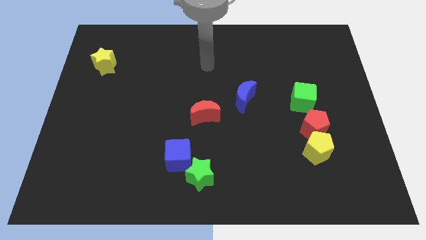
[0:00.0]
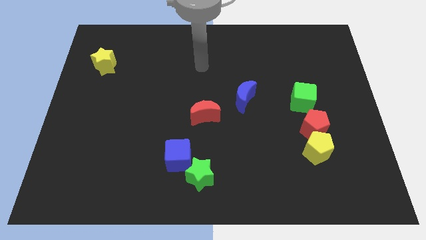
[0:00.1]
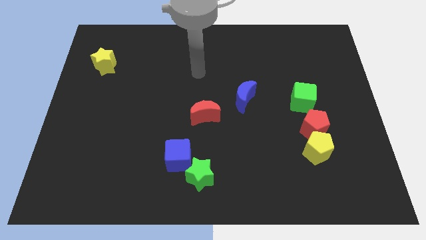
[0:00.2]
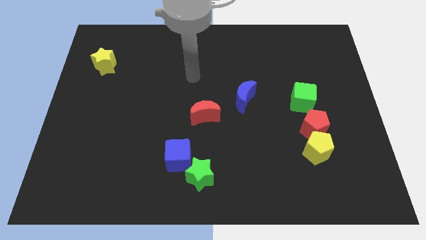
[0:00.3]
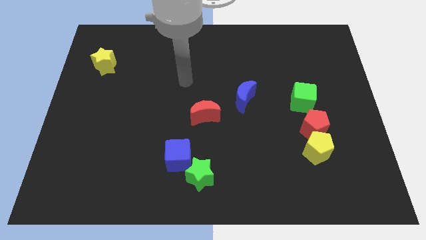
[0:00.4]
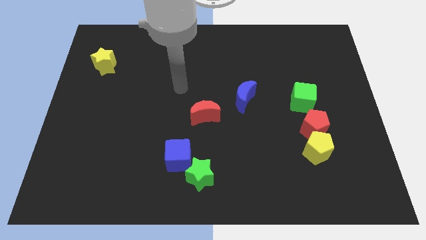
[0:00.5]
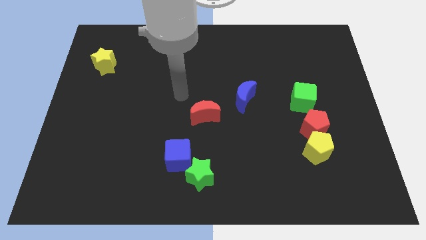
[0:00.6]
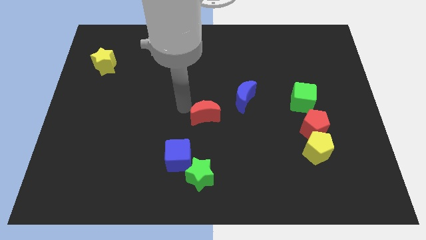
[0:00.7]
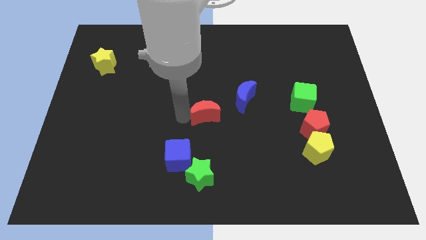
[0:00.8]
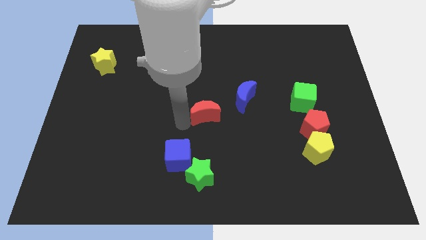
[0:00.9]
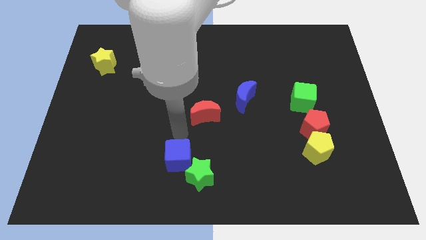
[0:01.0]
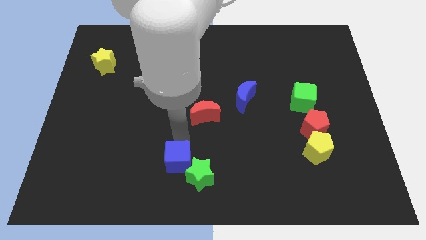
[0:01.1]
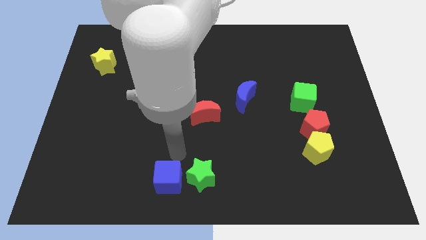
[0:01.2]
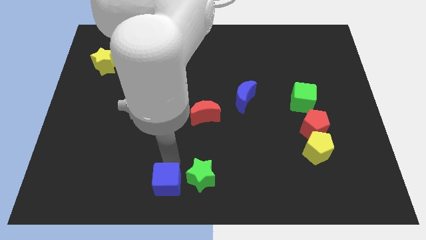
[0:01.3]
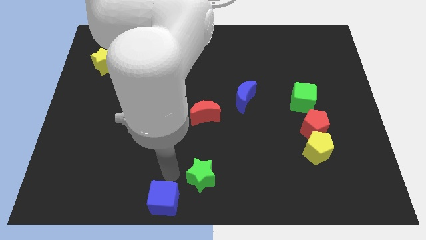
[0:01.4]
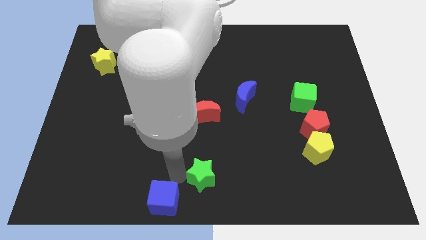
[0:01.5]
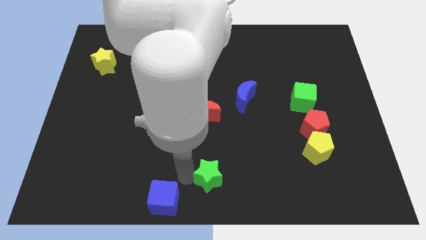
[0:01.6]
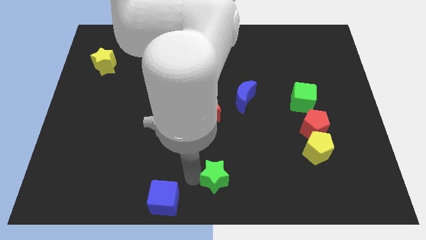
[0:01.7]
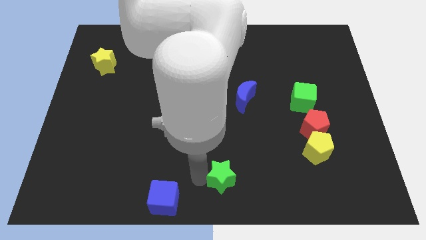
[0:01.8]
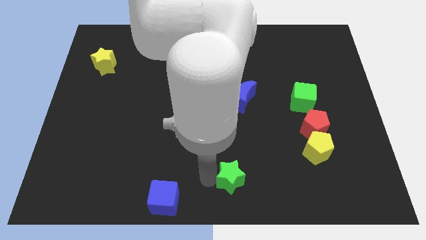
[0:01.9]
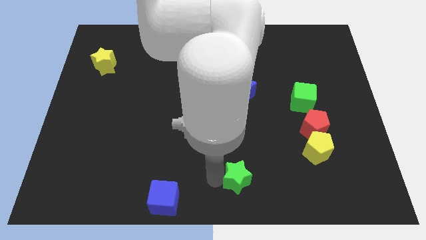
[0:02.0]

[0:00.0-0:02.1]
slightly move the green star to the right

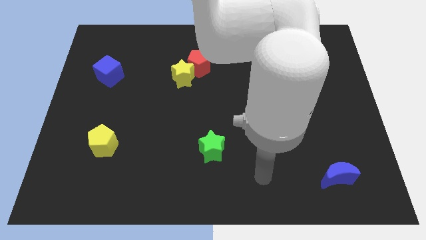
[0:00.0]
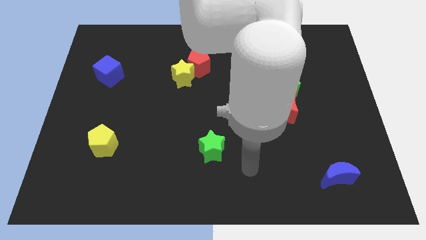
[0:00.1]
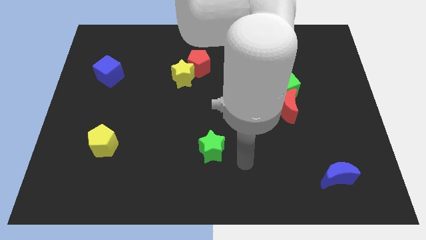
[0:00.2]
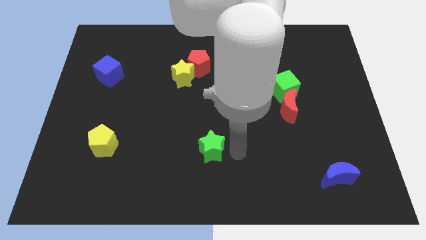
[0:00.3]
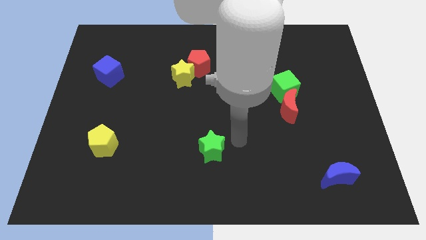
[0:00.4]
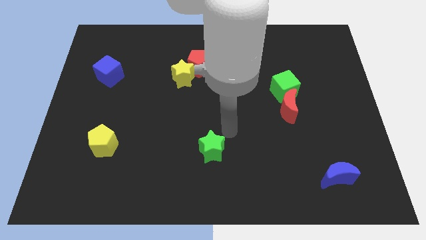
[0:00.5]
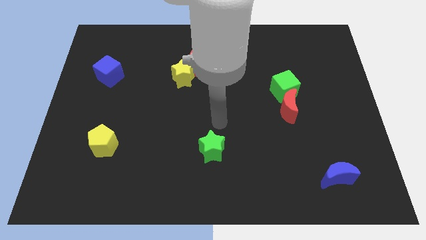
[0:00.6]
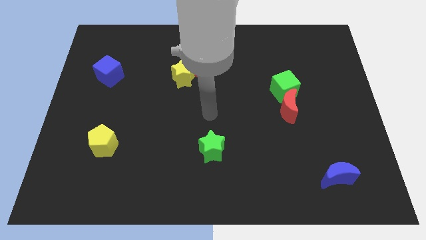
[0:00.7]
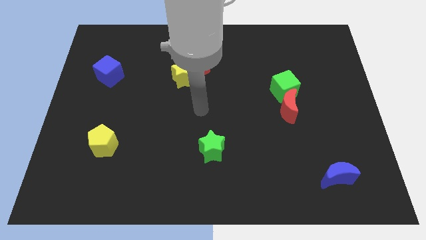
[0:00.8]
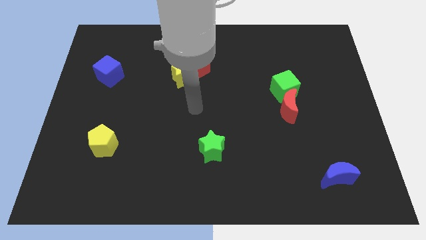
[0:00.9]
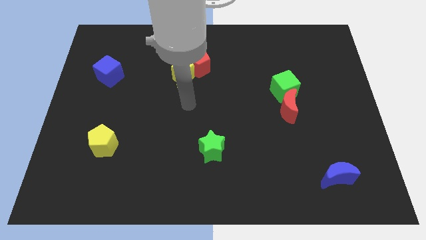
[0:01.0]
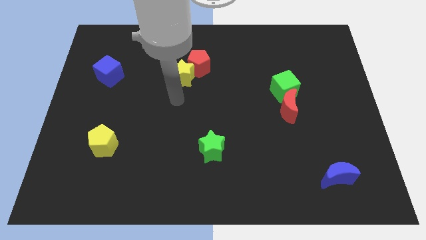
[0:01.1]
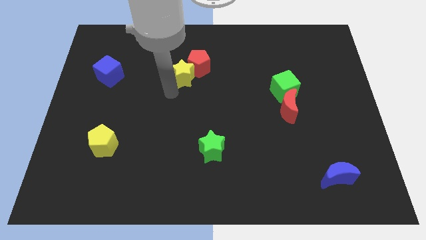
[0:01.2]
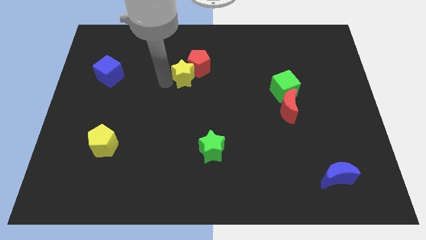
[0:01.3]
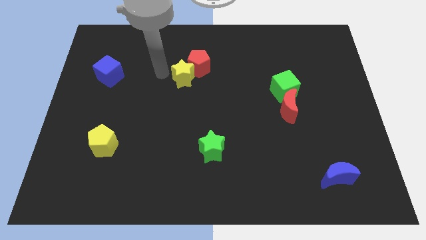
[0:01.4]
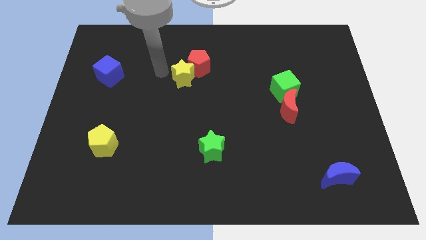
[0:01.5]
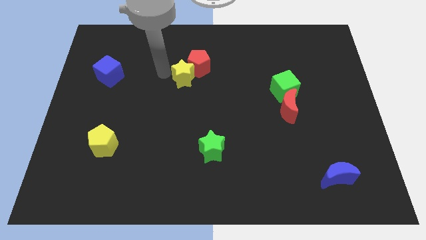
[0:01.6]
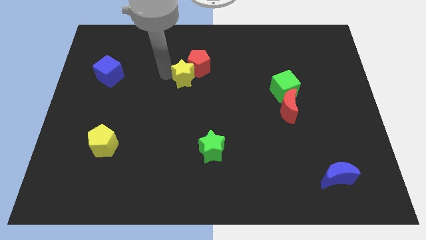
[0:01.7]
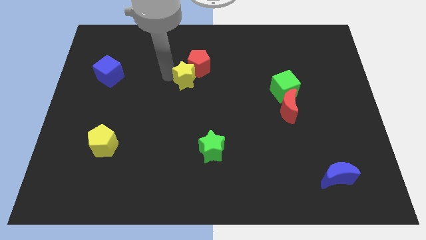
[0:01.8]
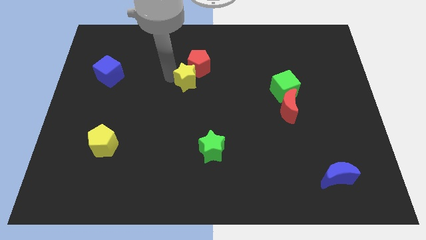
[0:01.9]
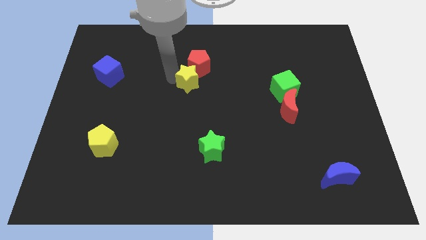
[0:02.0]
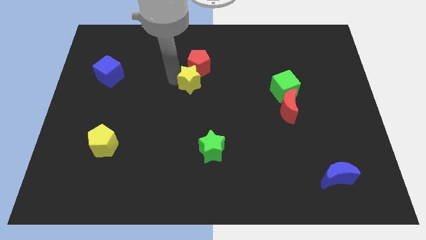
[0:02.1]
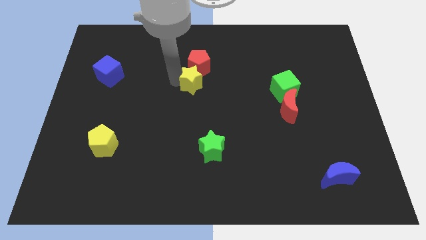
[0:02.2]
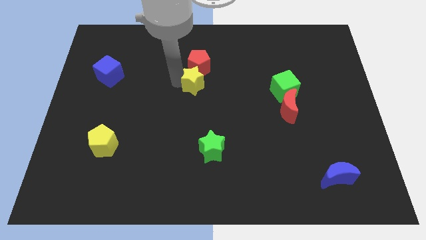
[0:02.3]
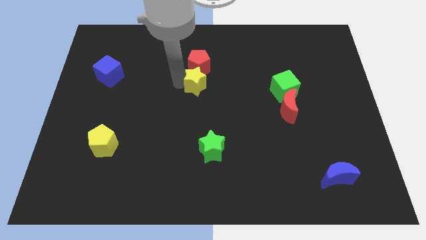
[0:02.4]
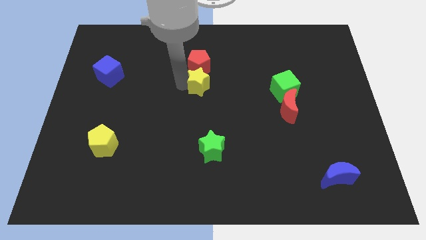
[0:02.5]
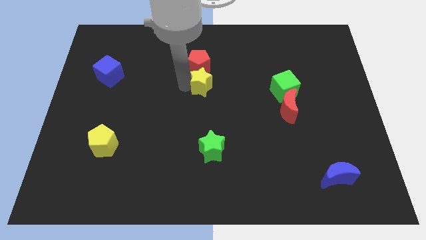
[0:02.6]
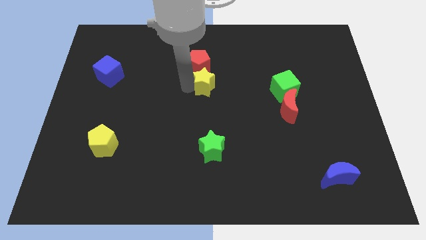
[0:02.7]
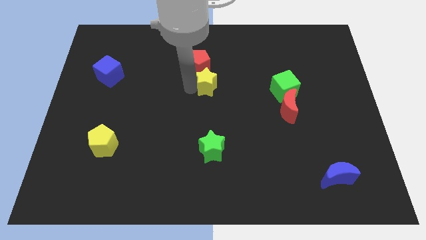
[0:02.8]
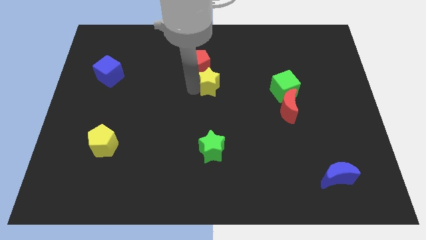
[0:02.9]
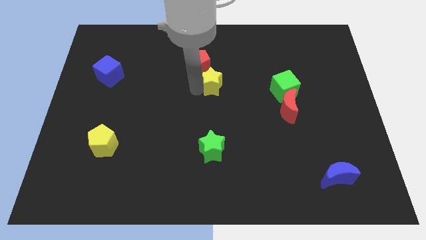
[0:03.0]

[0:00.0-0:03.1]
slide the yellow star right a bit

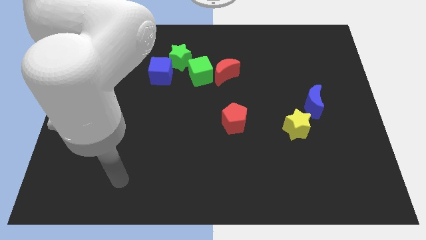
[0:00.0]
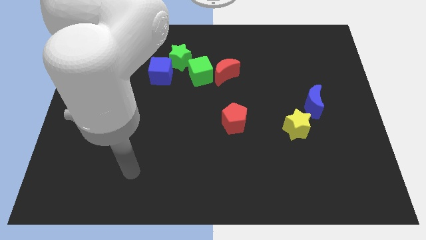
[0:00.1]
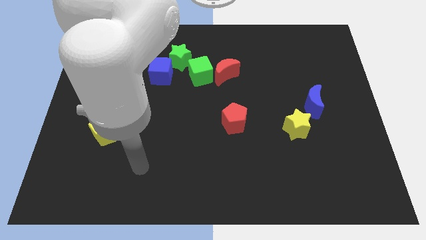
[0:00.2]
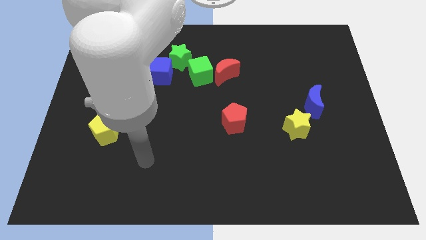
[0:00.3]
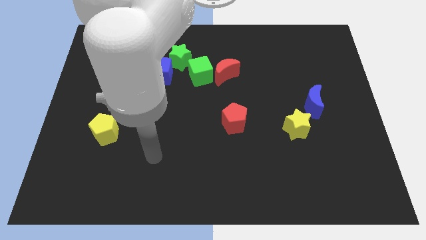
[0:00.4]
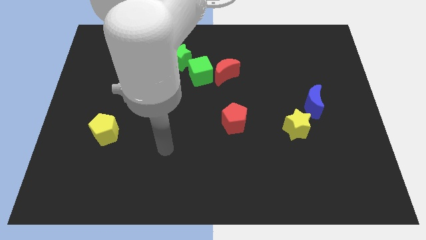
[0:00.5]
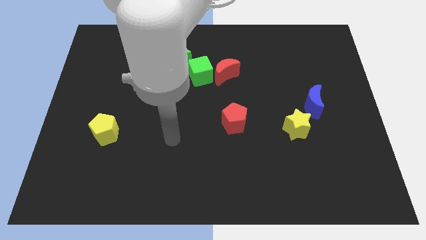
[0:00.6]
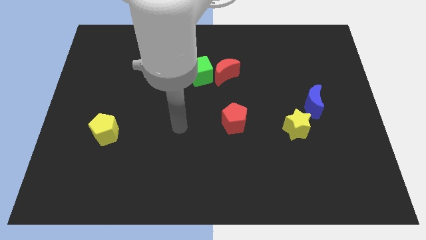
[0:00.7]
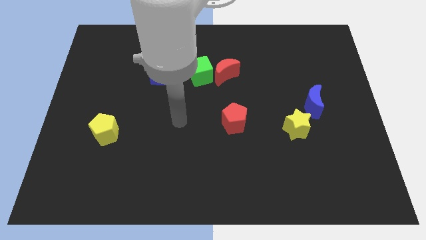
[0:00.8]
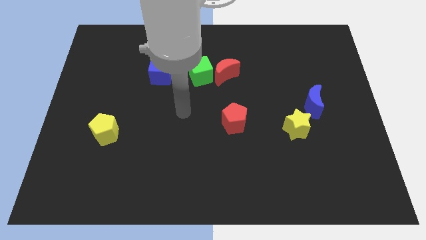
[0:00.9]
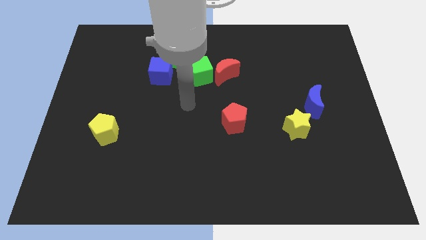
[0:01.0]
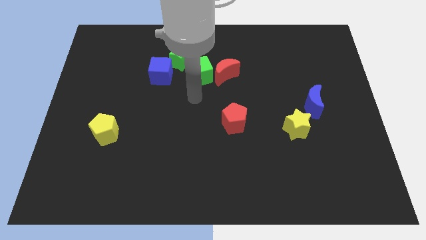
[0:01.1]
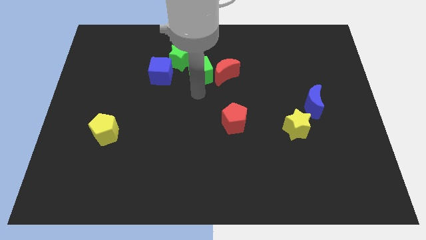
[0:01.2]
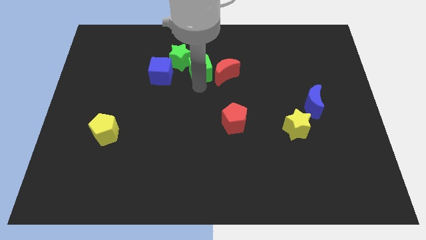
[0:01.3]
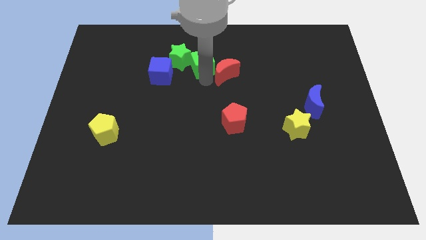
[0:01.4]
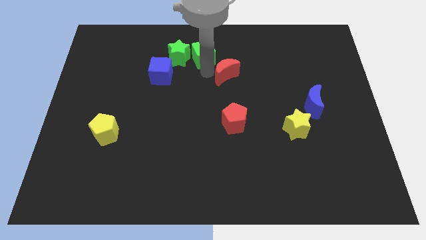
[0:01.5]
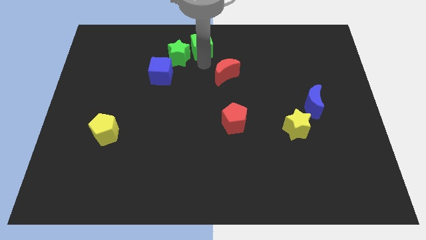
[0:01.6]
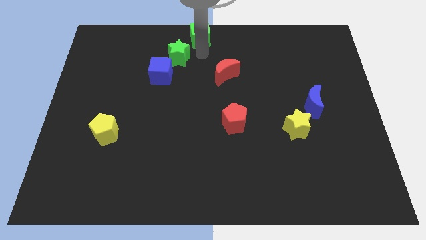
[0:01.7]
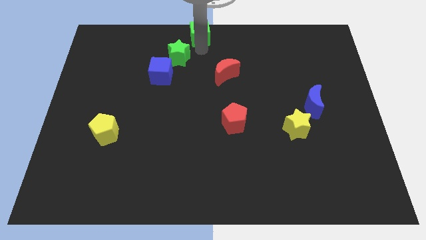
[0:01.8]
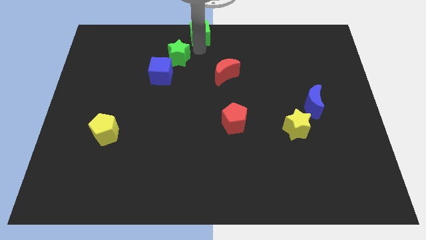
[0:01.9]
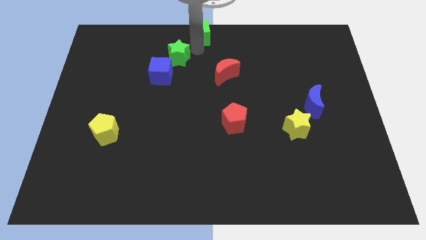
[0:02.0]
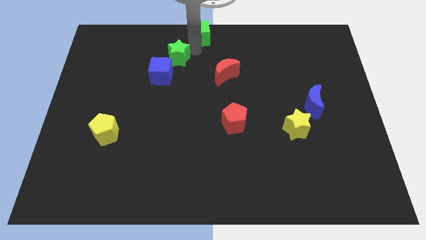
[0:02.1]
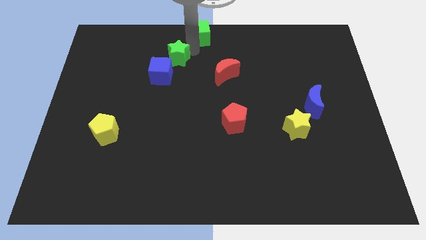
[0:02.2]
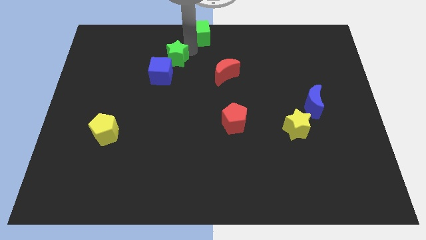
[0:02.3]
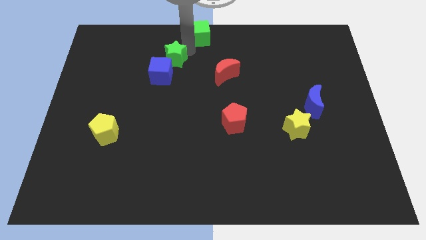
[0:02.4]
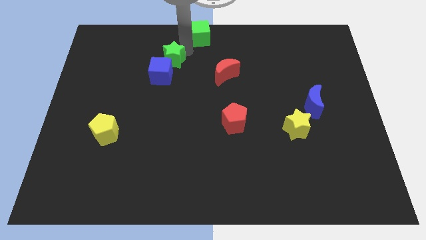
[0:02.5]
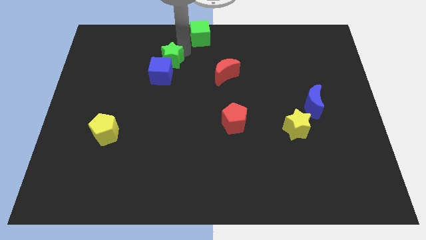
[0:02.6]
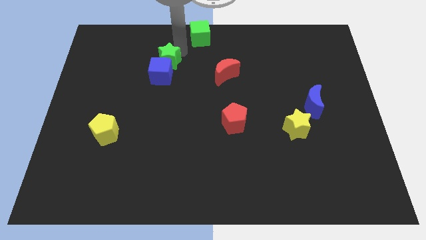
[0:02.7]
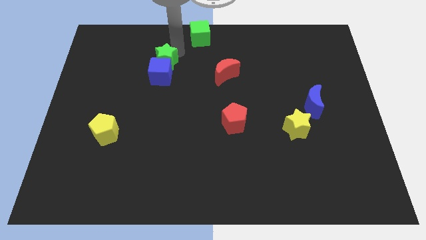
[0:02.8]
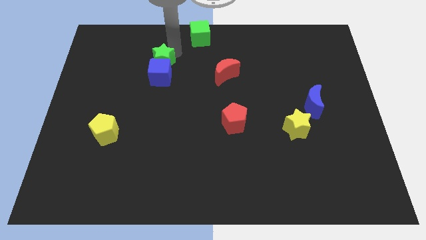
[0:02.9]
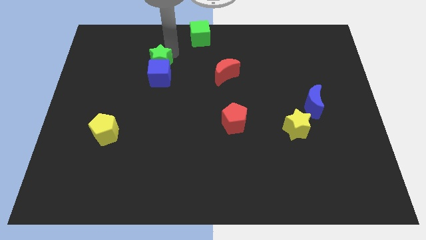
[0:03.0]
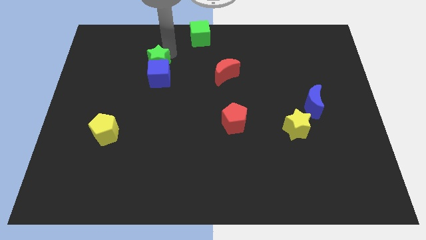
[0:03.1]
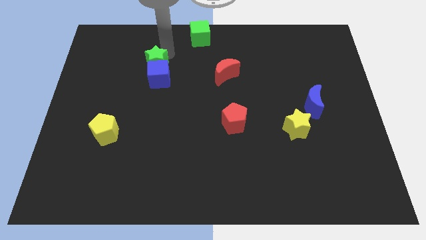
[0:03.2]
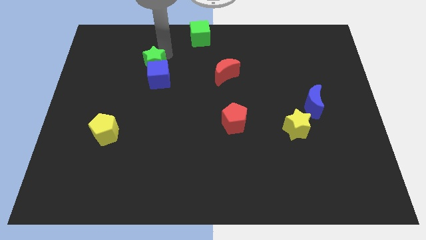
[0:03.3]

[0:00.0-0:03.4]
slide the green star left a little bit
